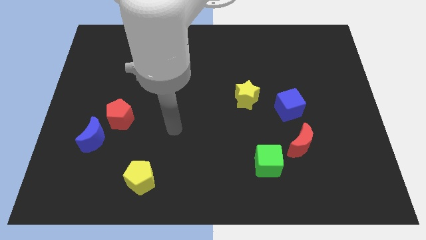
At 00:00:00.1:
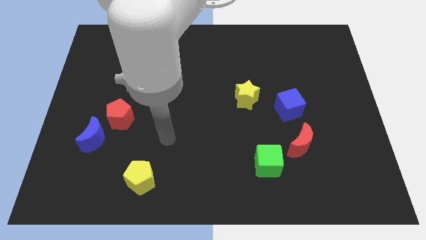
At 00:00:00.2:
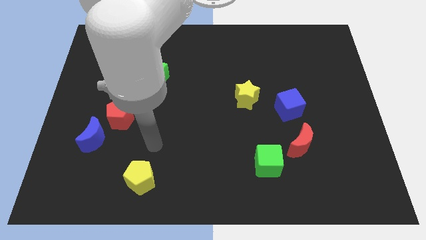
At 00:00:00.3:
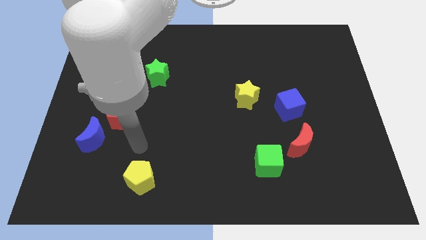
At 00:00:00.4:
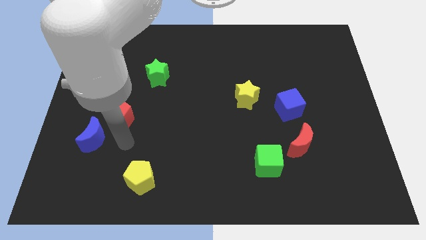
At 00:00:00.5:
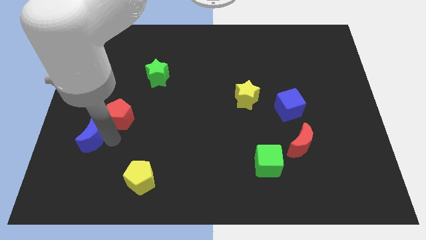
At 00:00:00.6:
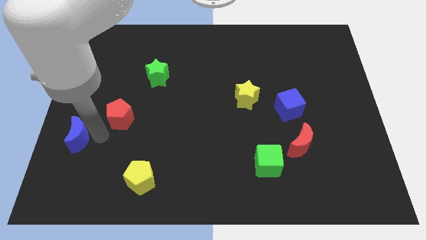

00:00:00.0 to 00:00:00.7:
pull the red pentagon apart from the blue moon

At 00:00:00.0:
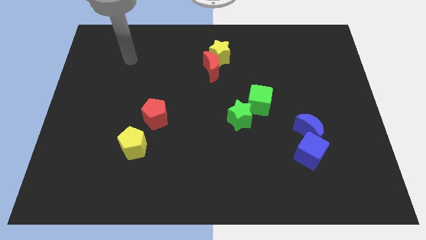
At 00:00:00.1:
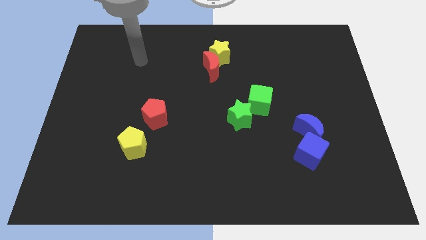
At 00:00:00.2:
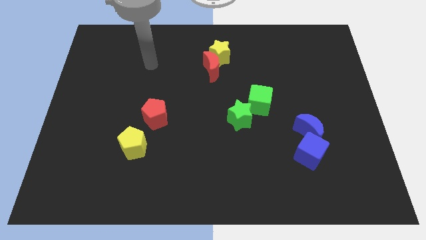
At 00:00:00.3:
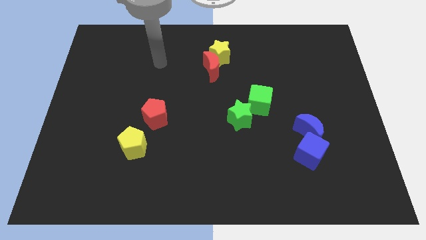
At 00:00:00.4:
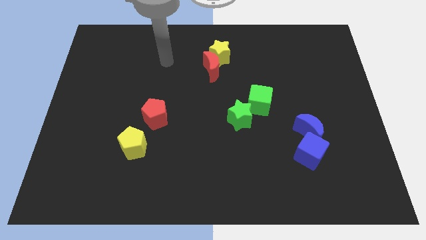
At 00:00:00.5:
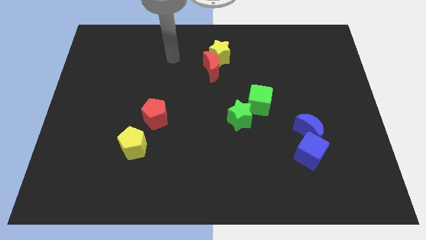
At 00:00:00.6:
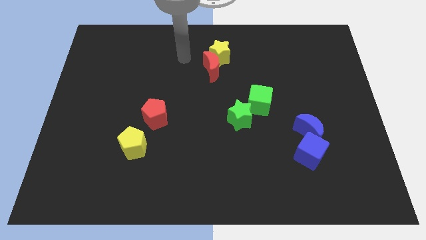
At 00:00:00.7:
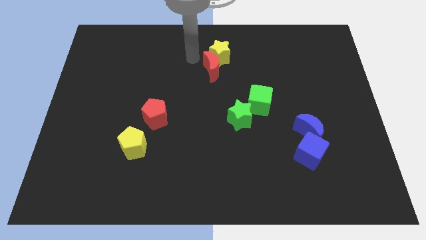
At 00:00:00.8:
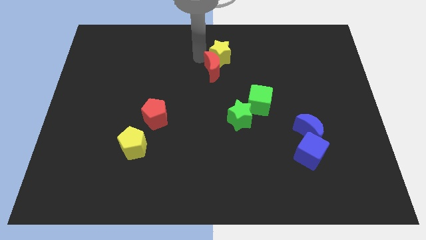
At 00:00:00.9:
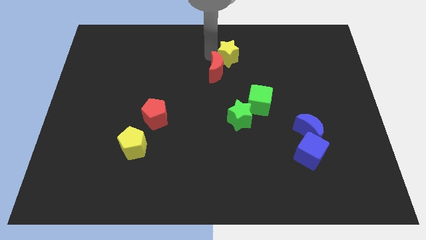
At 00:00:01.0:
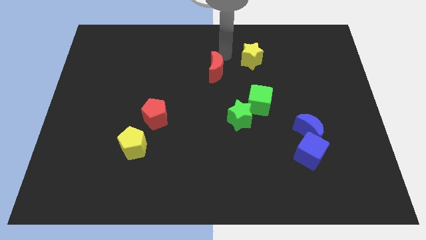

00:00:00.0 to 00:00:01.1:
move the red moon away from the yellow star

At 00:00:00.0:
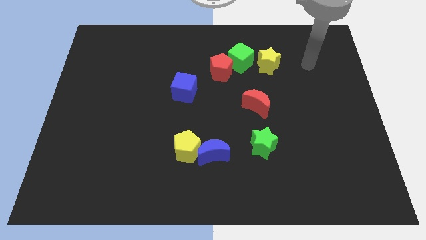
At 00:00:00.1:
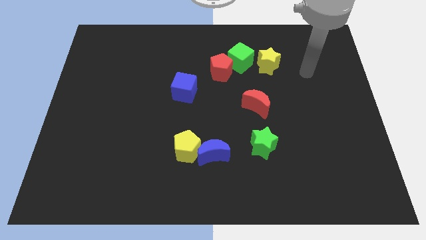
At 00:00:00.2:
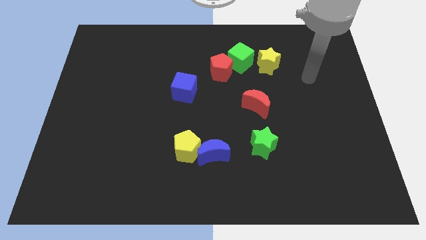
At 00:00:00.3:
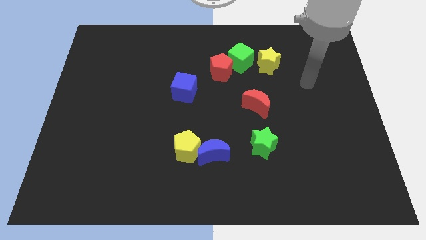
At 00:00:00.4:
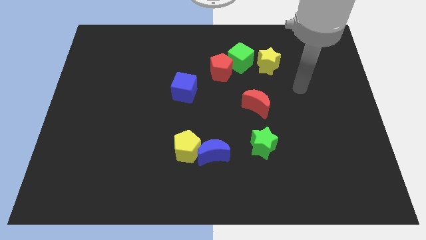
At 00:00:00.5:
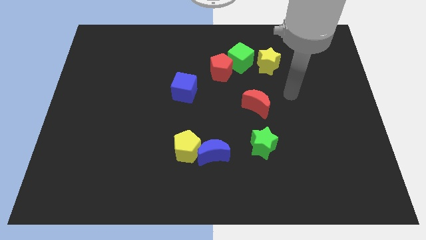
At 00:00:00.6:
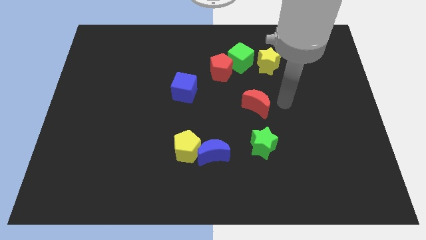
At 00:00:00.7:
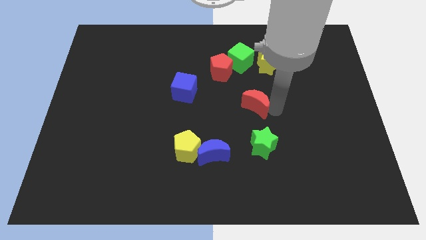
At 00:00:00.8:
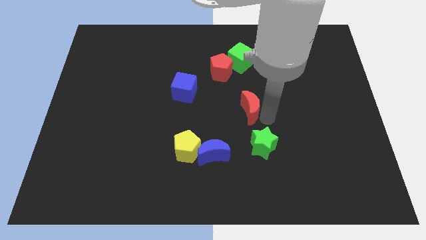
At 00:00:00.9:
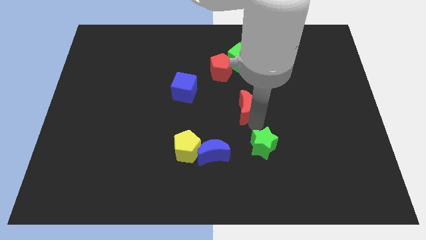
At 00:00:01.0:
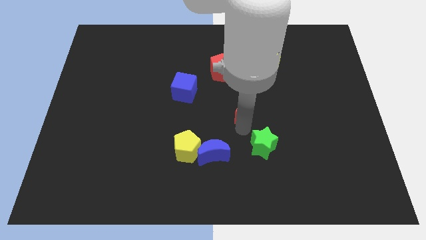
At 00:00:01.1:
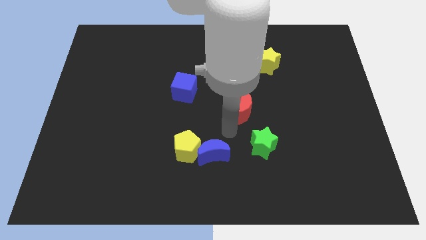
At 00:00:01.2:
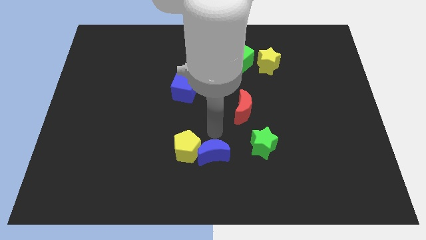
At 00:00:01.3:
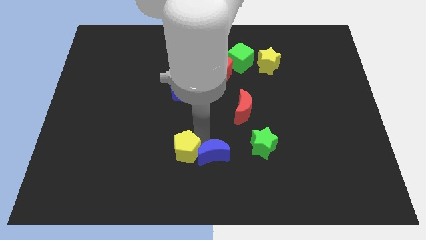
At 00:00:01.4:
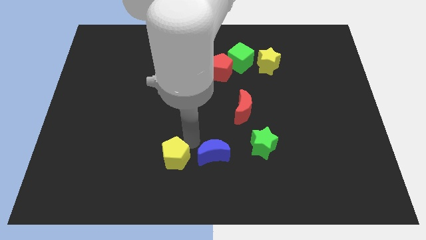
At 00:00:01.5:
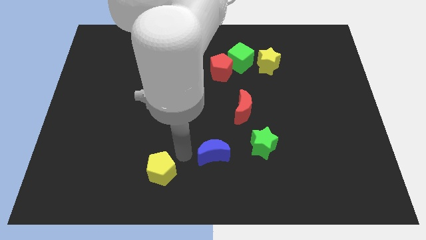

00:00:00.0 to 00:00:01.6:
separate the blue moon from the yellow pentagon

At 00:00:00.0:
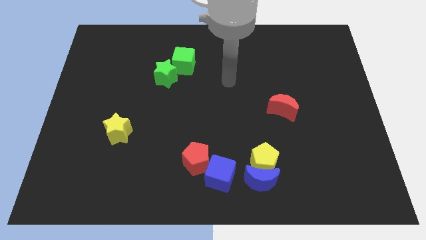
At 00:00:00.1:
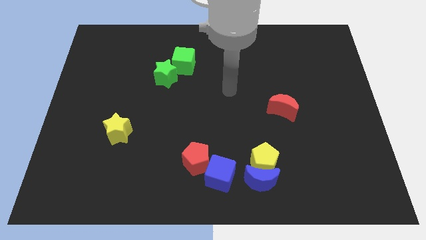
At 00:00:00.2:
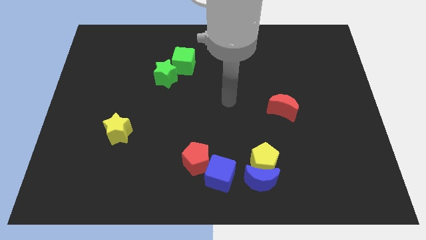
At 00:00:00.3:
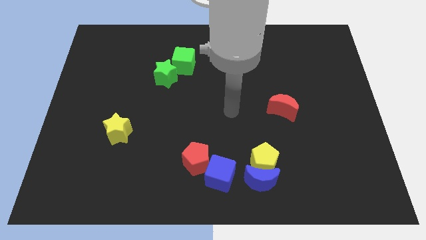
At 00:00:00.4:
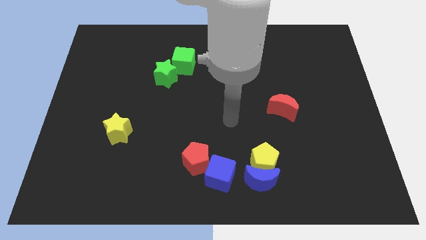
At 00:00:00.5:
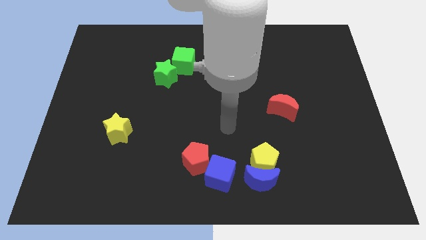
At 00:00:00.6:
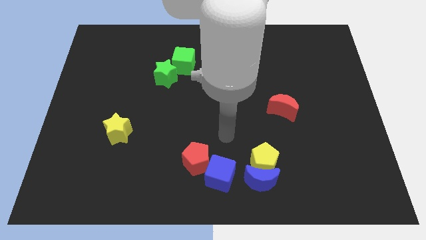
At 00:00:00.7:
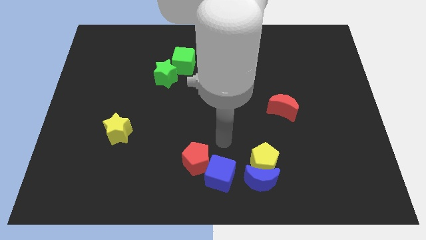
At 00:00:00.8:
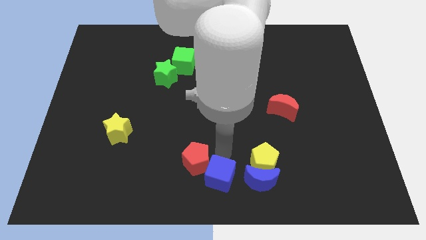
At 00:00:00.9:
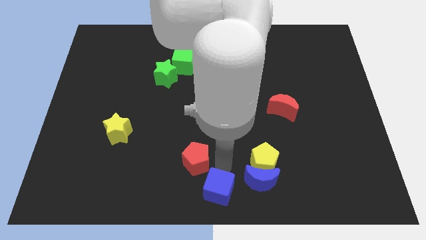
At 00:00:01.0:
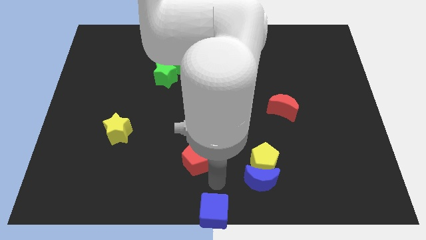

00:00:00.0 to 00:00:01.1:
move the red pentagon away from the blue cube

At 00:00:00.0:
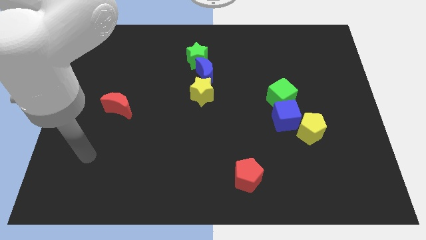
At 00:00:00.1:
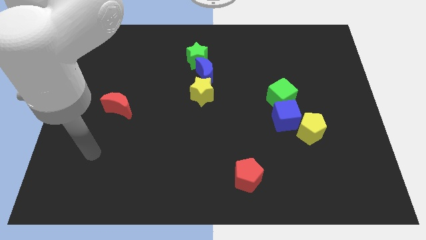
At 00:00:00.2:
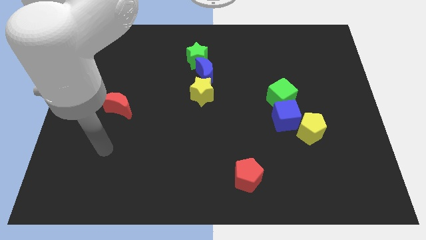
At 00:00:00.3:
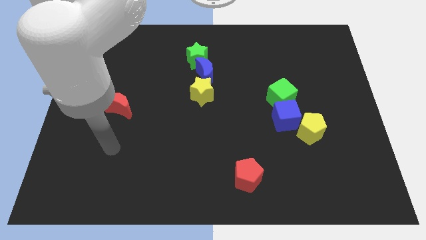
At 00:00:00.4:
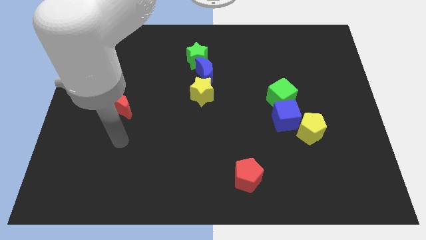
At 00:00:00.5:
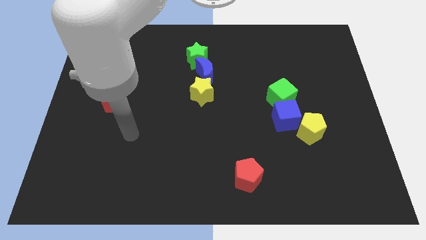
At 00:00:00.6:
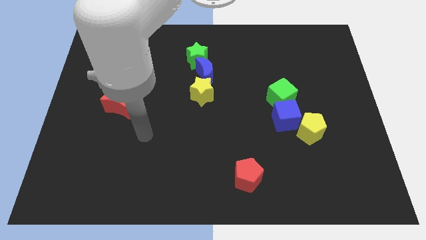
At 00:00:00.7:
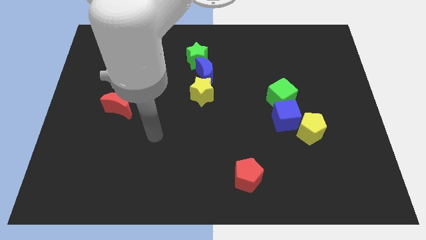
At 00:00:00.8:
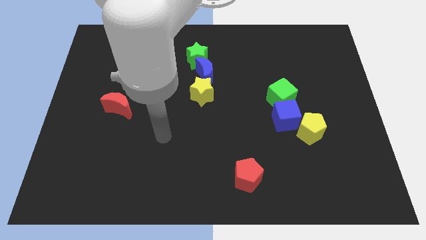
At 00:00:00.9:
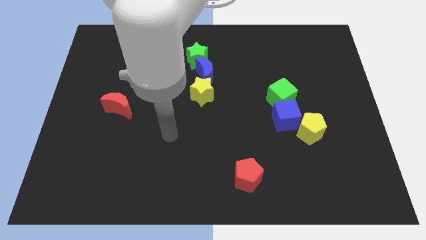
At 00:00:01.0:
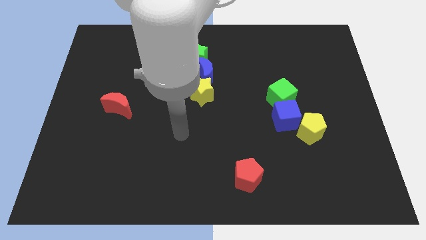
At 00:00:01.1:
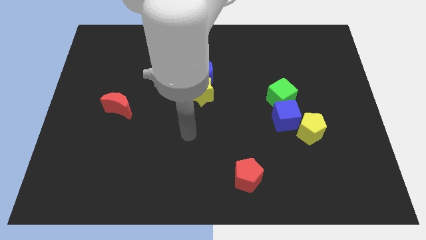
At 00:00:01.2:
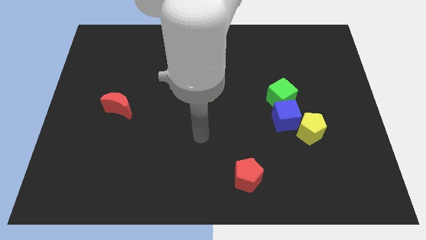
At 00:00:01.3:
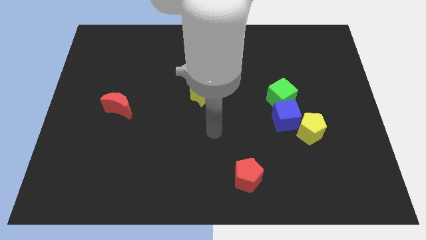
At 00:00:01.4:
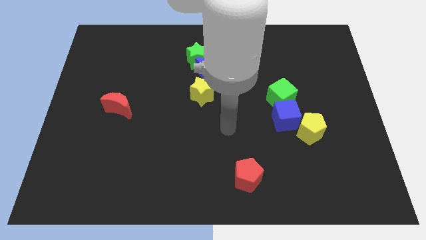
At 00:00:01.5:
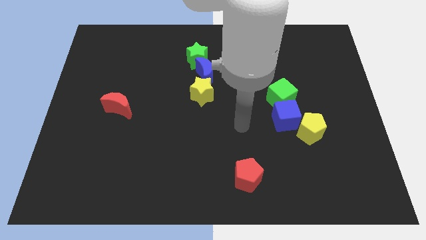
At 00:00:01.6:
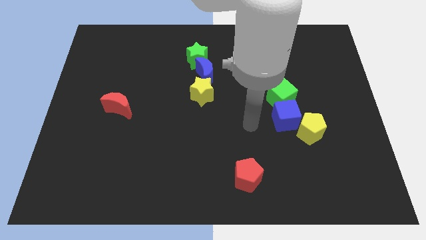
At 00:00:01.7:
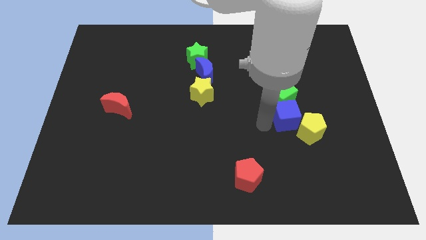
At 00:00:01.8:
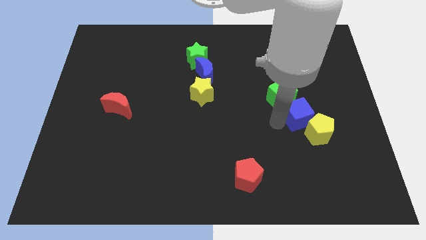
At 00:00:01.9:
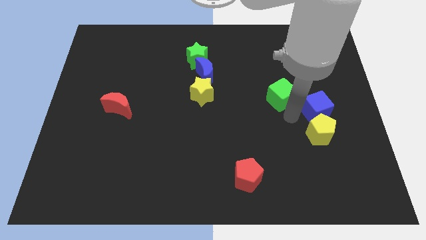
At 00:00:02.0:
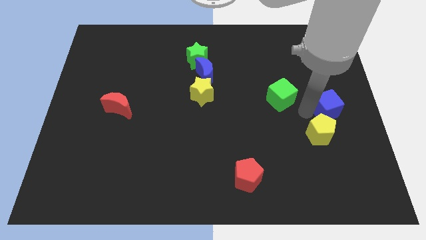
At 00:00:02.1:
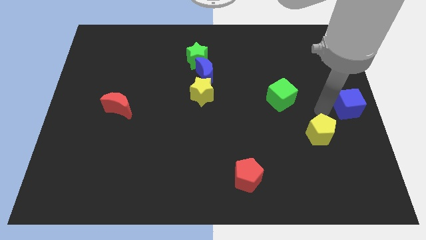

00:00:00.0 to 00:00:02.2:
separate the yellow pentagon from the blue cube

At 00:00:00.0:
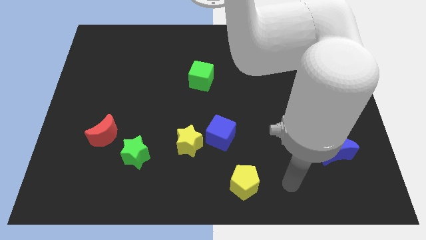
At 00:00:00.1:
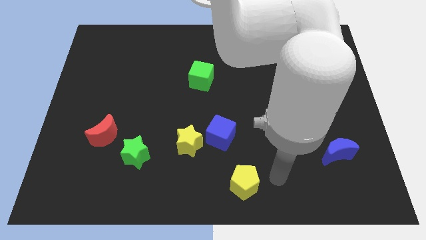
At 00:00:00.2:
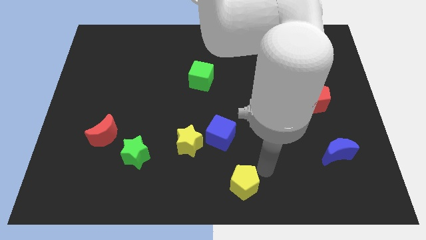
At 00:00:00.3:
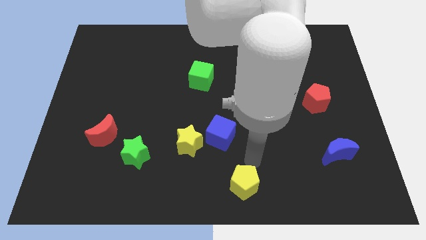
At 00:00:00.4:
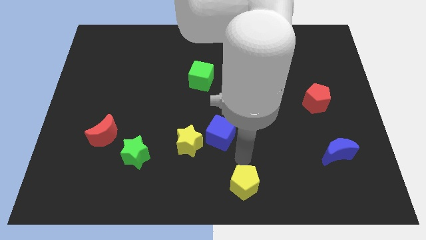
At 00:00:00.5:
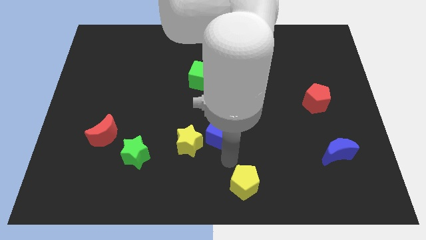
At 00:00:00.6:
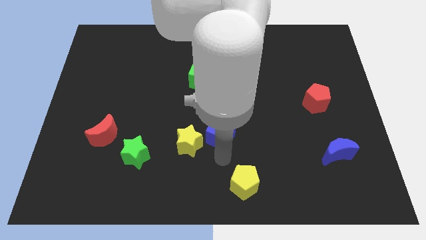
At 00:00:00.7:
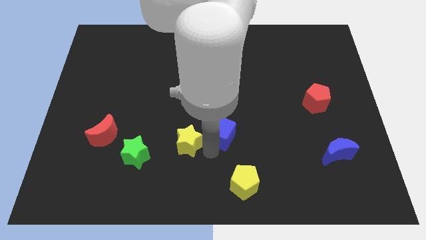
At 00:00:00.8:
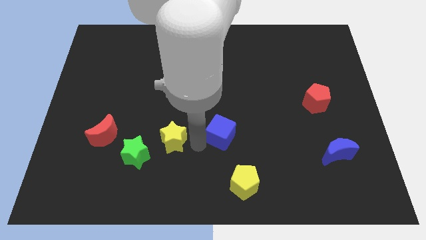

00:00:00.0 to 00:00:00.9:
pull the blue cube apart from the yellow star

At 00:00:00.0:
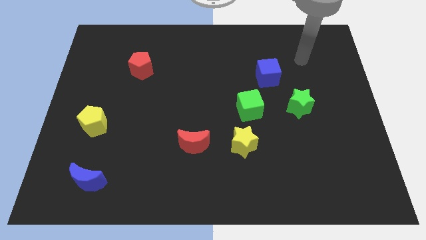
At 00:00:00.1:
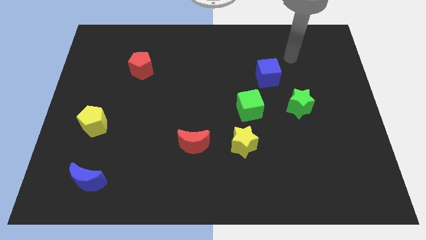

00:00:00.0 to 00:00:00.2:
pull the green cube apart from the yellow star

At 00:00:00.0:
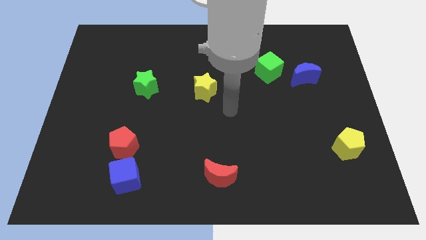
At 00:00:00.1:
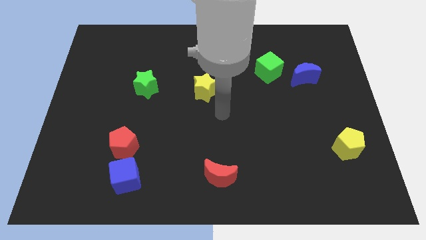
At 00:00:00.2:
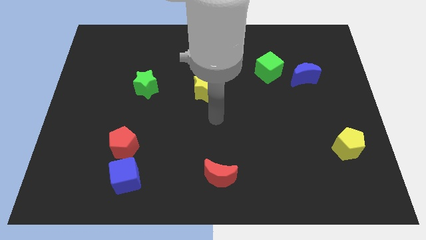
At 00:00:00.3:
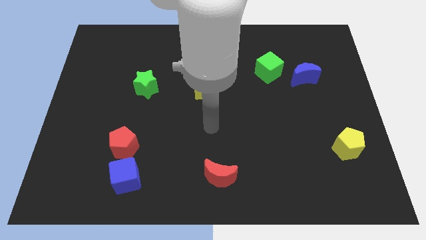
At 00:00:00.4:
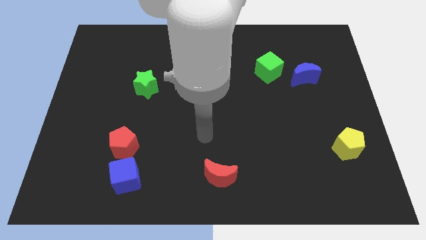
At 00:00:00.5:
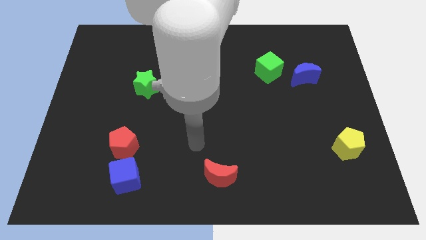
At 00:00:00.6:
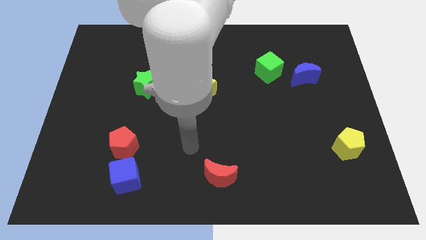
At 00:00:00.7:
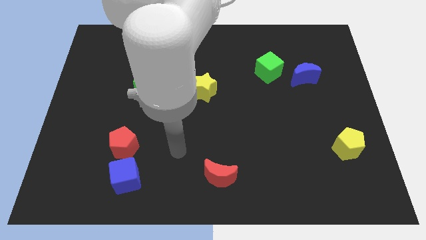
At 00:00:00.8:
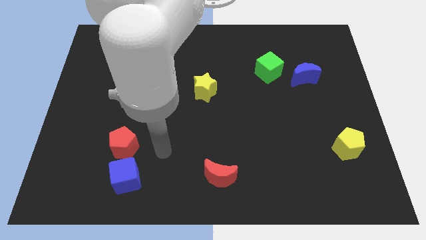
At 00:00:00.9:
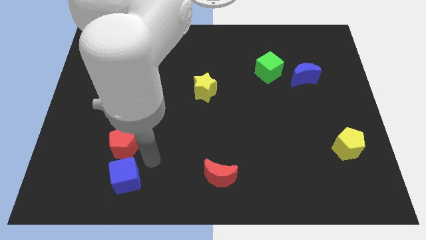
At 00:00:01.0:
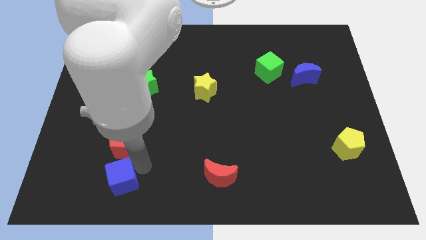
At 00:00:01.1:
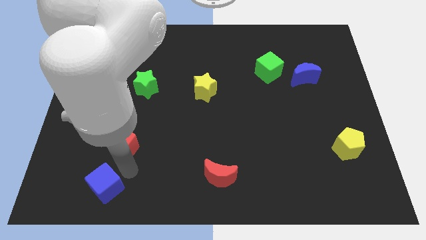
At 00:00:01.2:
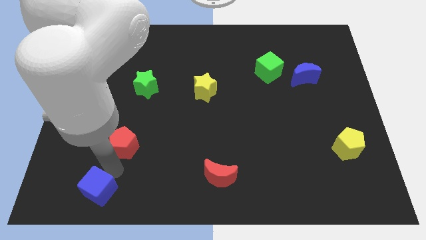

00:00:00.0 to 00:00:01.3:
pull the red pentagon apart from the blue cube

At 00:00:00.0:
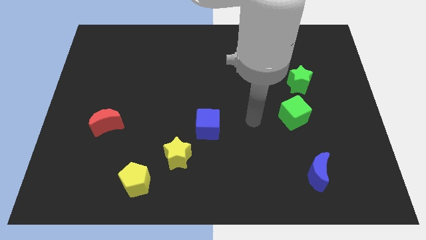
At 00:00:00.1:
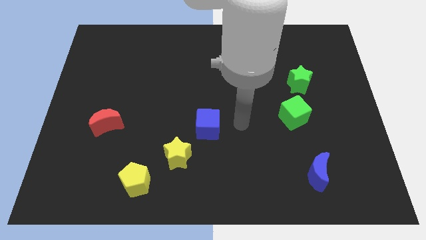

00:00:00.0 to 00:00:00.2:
separate the blue cube from the yellow star
